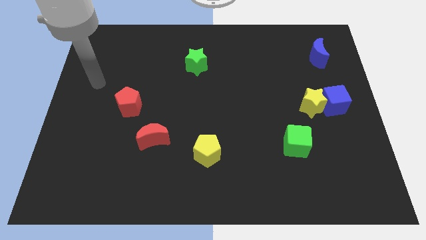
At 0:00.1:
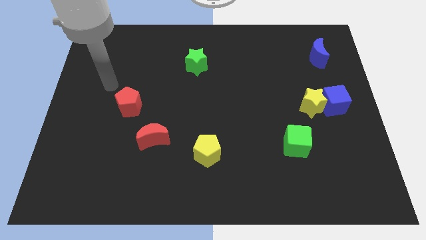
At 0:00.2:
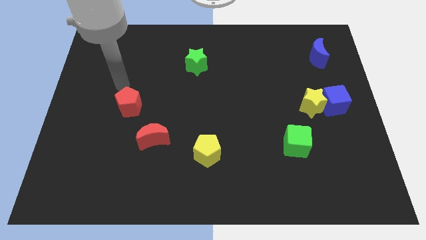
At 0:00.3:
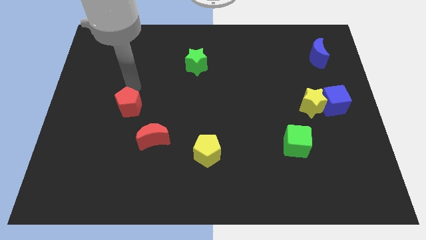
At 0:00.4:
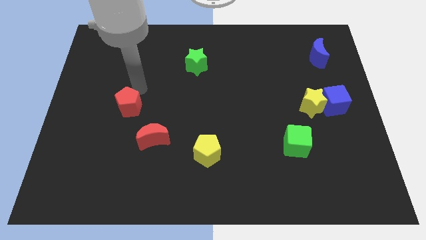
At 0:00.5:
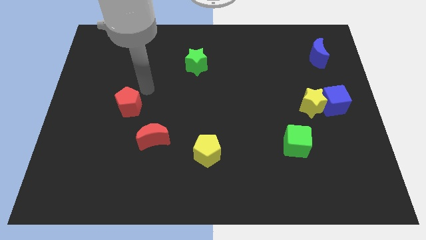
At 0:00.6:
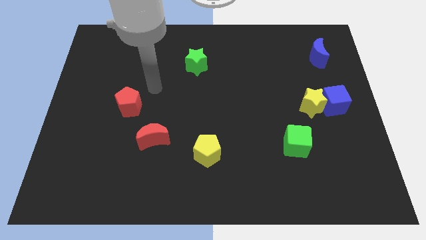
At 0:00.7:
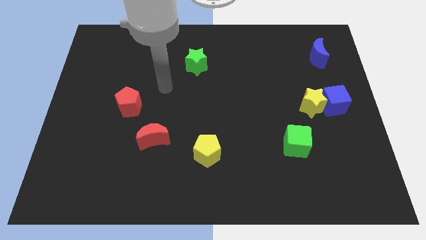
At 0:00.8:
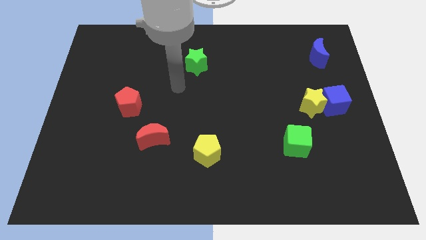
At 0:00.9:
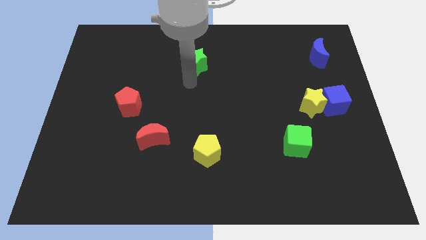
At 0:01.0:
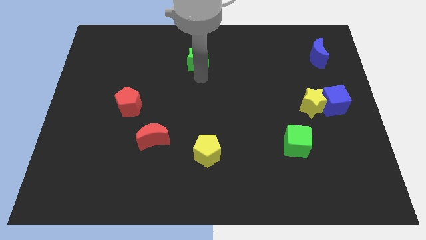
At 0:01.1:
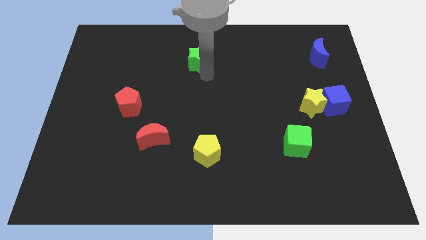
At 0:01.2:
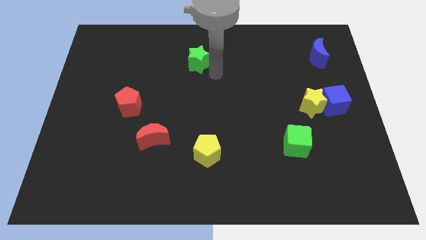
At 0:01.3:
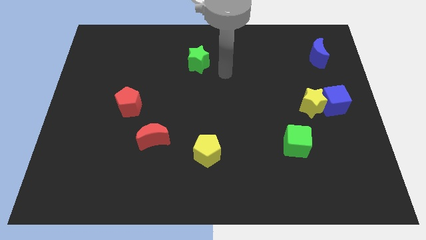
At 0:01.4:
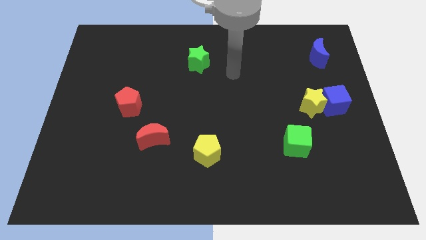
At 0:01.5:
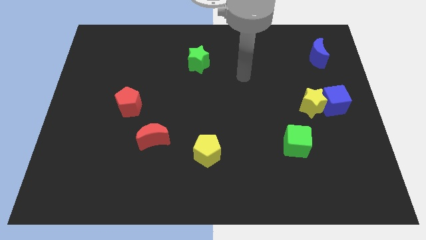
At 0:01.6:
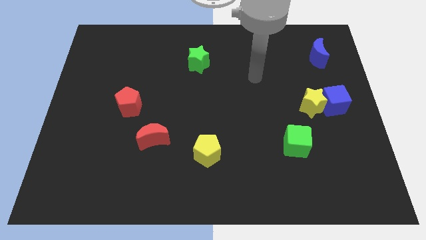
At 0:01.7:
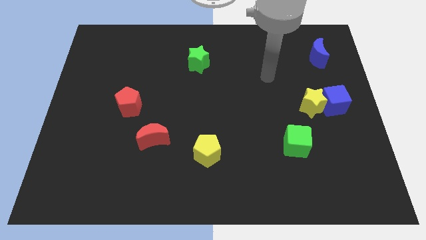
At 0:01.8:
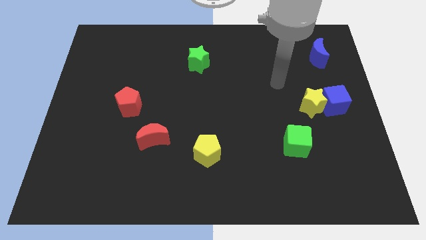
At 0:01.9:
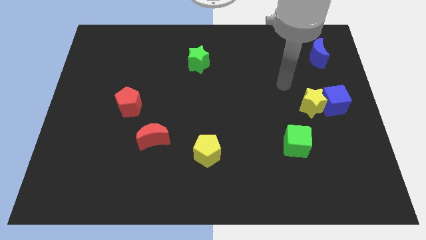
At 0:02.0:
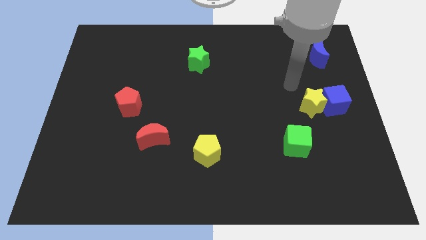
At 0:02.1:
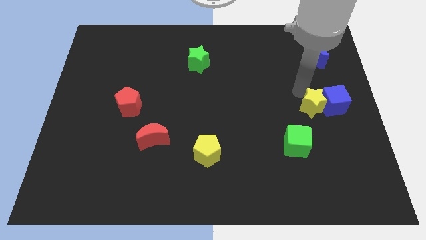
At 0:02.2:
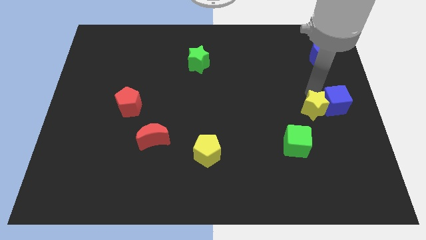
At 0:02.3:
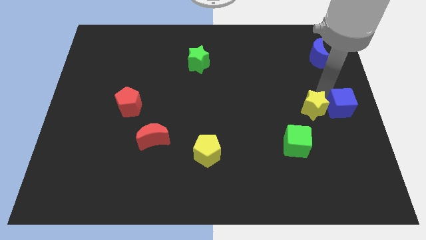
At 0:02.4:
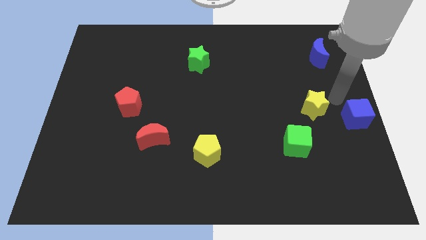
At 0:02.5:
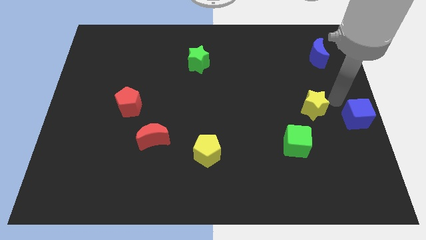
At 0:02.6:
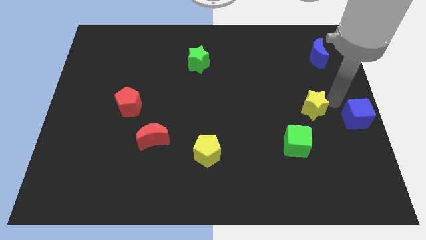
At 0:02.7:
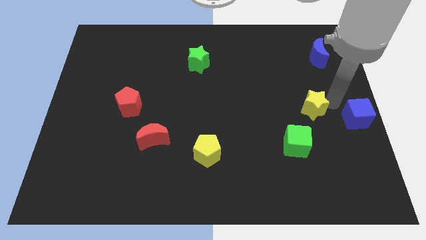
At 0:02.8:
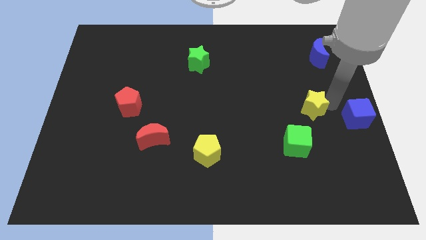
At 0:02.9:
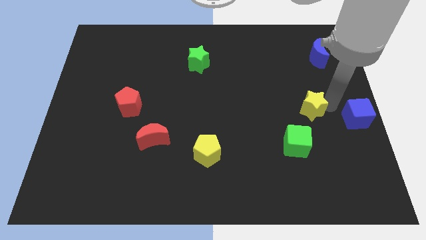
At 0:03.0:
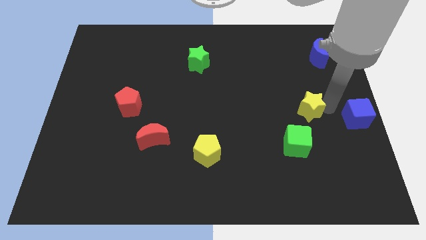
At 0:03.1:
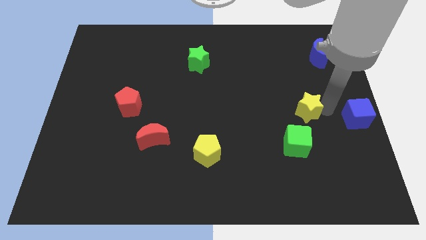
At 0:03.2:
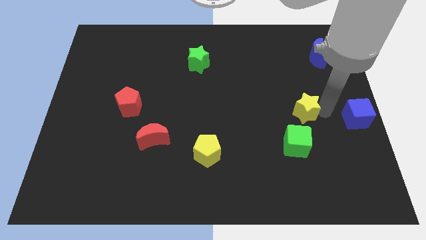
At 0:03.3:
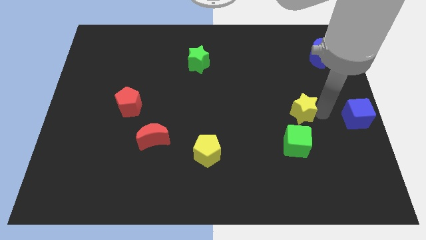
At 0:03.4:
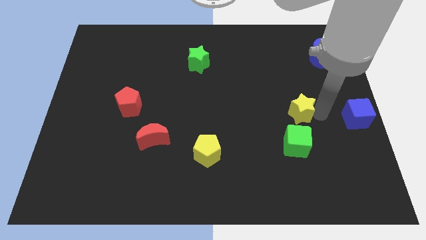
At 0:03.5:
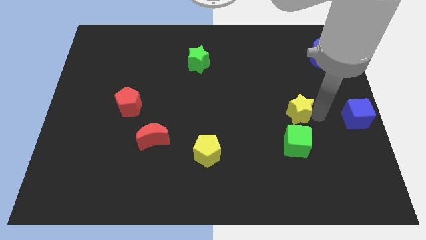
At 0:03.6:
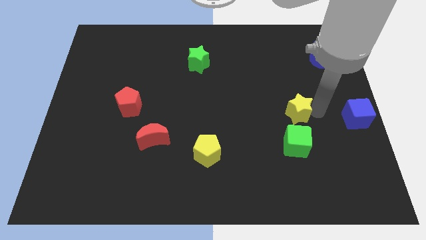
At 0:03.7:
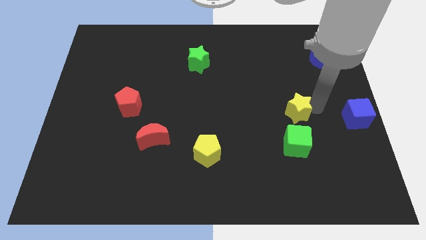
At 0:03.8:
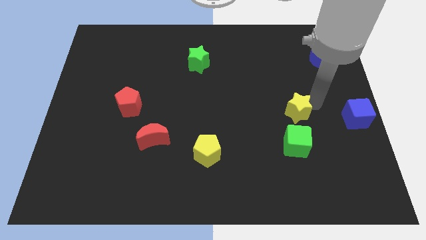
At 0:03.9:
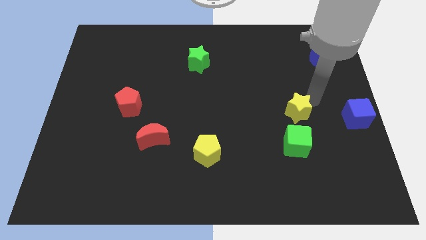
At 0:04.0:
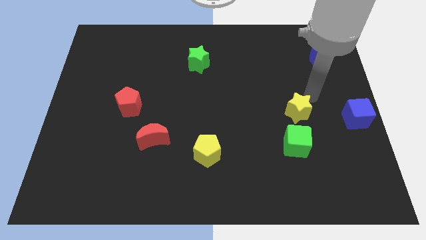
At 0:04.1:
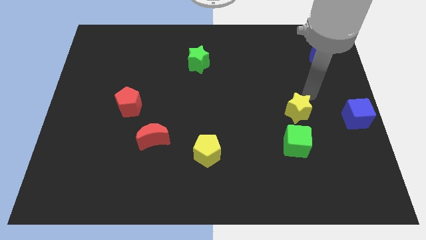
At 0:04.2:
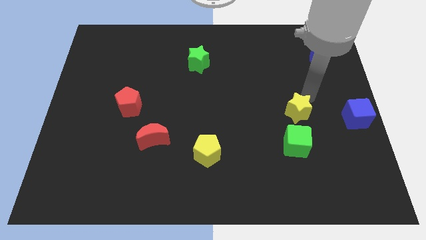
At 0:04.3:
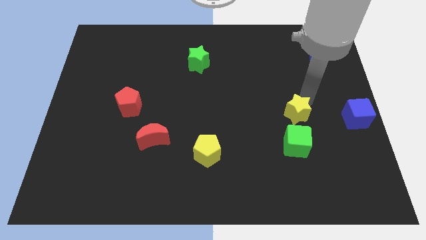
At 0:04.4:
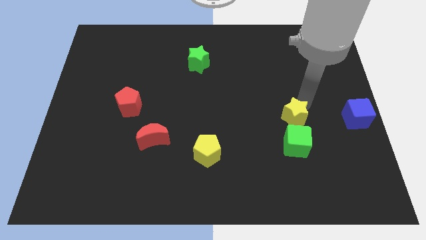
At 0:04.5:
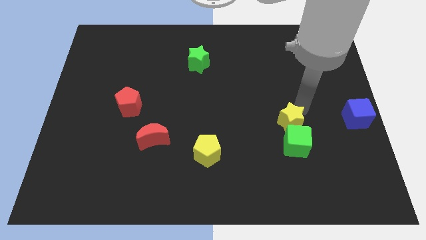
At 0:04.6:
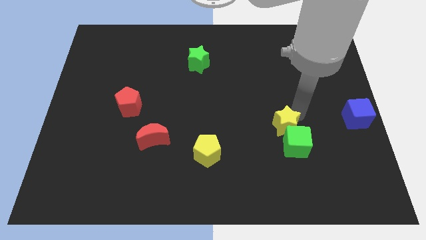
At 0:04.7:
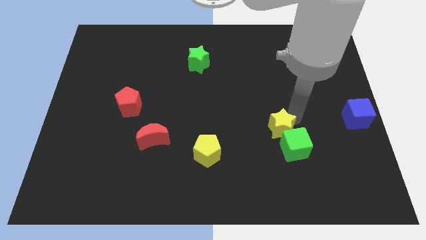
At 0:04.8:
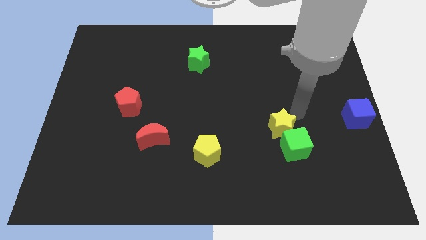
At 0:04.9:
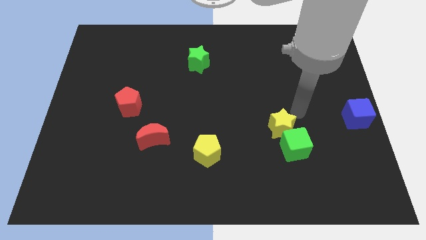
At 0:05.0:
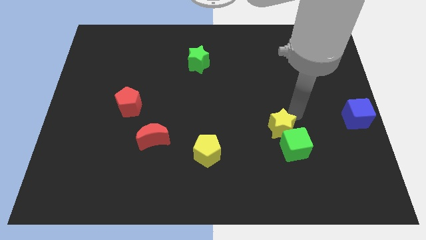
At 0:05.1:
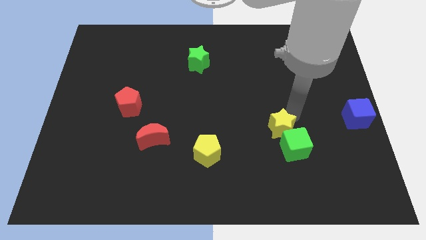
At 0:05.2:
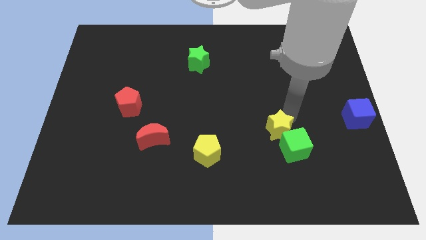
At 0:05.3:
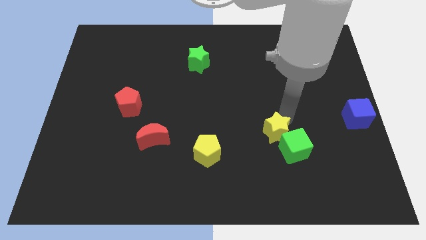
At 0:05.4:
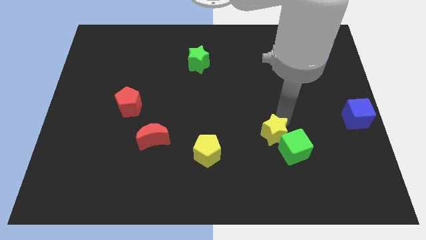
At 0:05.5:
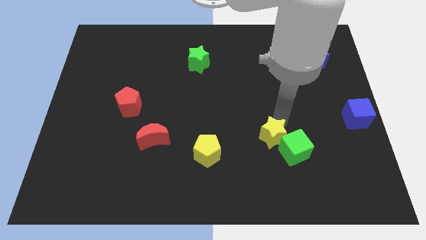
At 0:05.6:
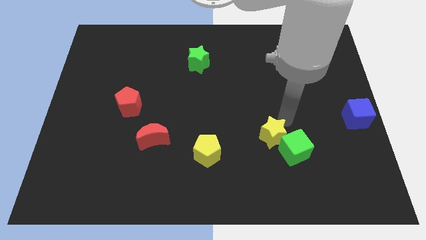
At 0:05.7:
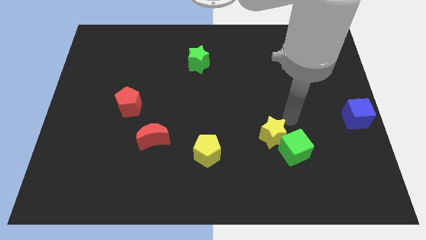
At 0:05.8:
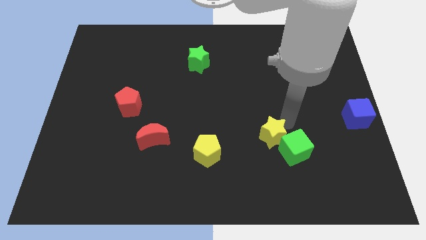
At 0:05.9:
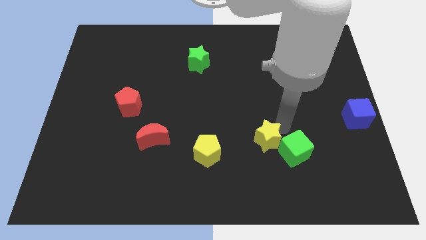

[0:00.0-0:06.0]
slide the yellow star just right of the yellow pentagon

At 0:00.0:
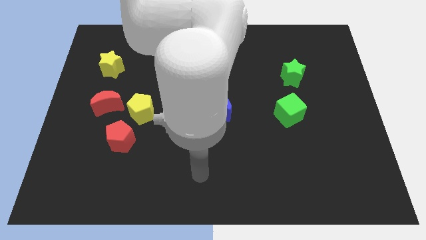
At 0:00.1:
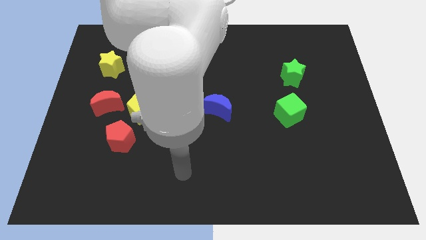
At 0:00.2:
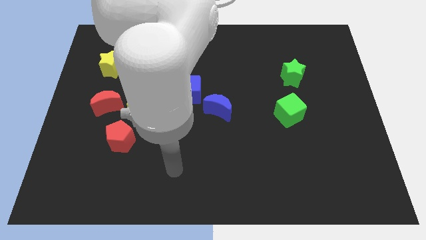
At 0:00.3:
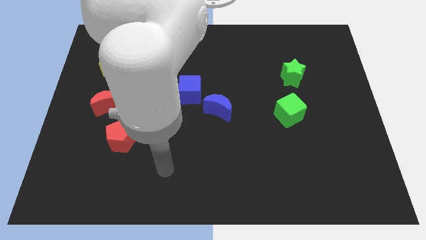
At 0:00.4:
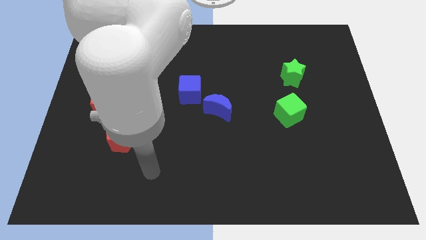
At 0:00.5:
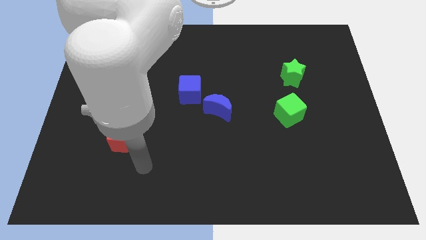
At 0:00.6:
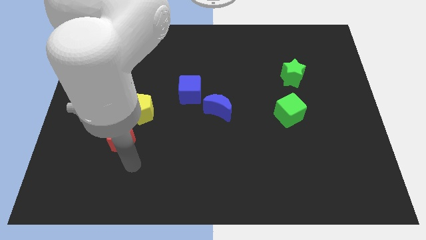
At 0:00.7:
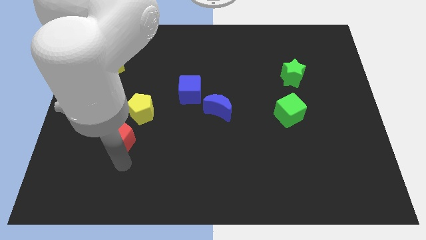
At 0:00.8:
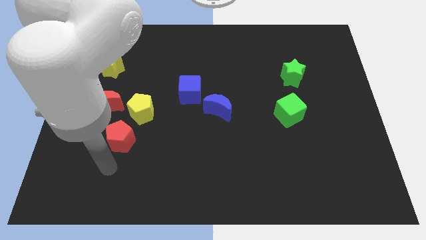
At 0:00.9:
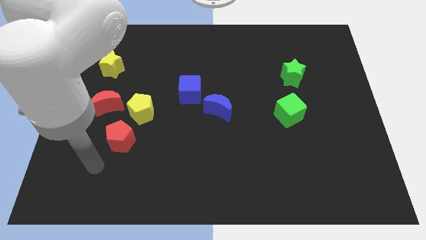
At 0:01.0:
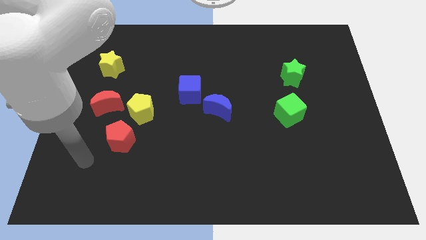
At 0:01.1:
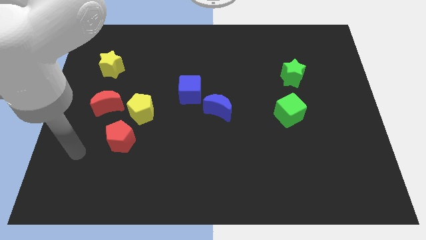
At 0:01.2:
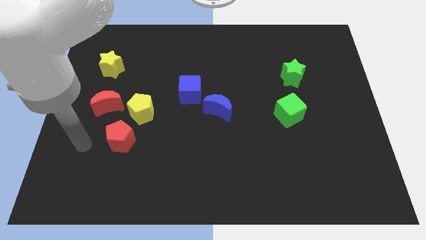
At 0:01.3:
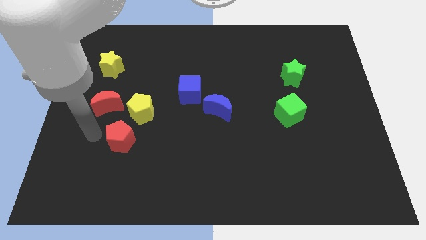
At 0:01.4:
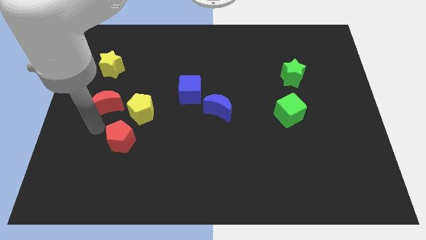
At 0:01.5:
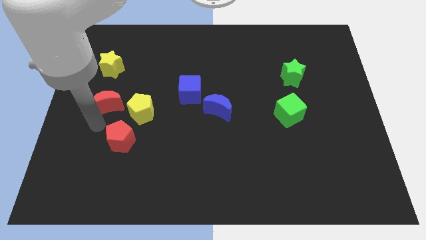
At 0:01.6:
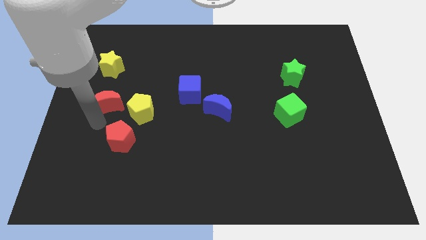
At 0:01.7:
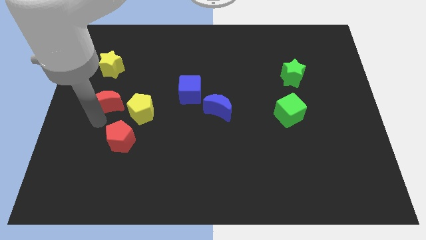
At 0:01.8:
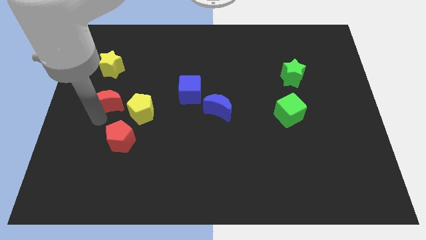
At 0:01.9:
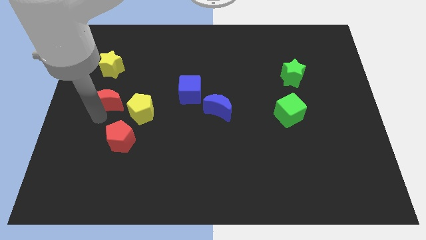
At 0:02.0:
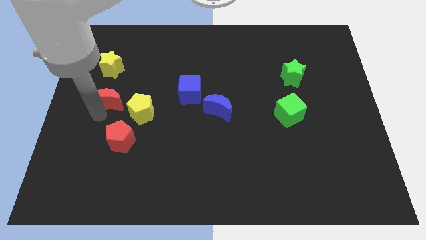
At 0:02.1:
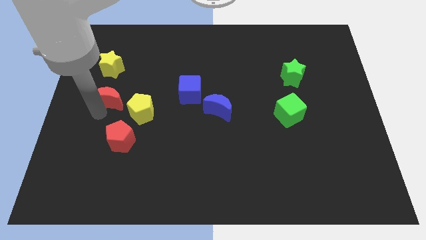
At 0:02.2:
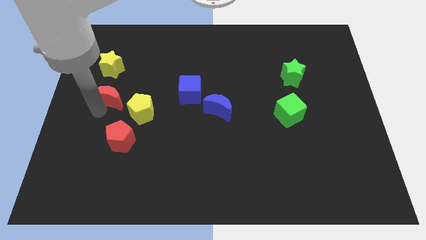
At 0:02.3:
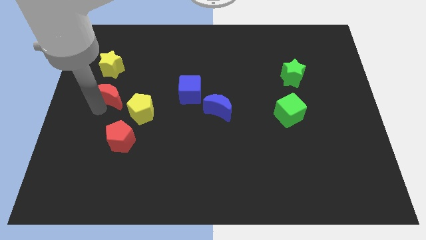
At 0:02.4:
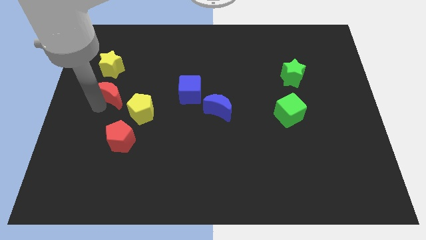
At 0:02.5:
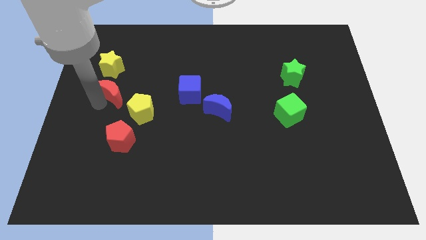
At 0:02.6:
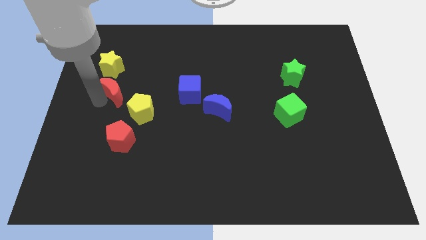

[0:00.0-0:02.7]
move the red moon to the bottom right side of the yellow star
